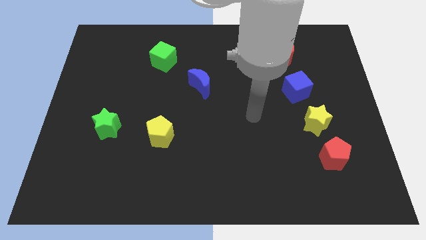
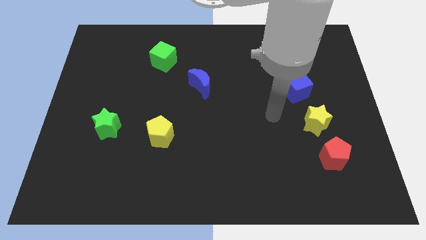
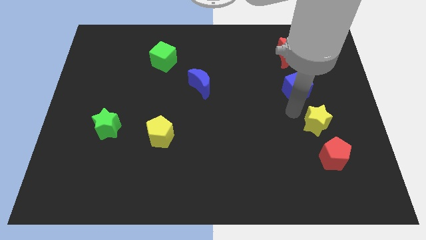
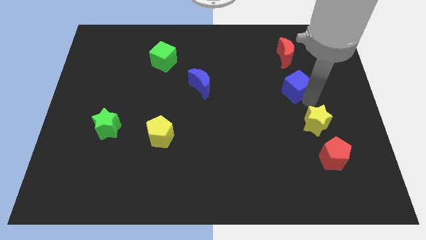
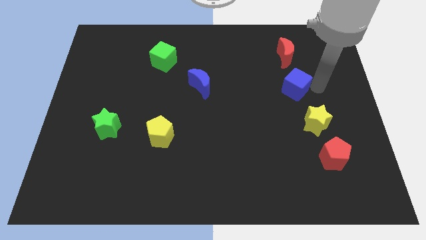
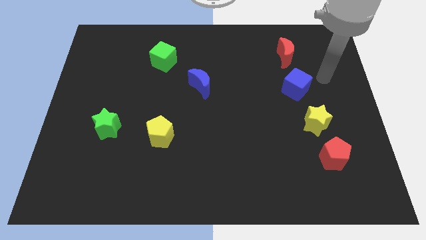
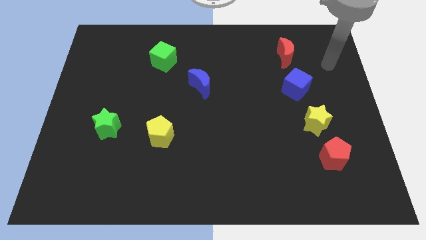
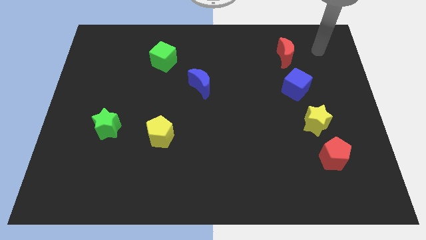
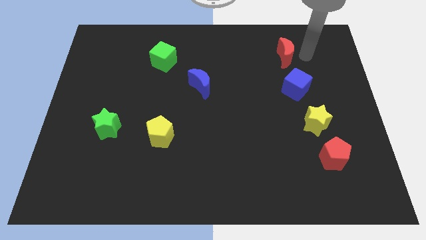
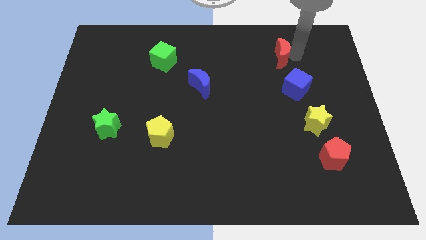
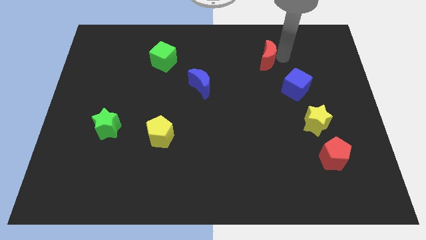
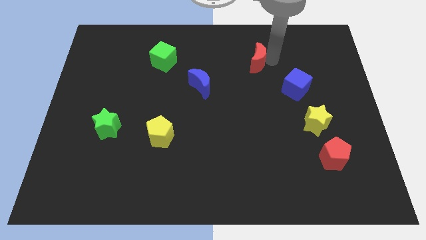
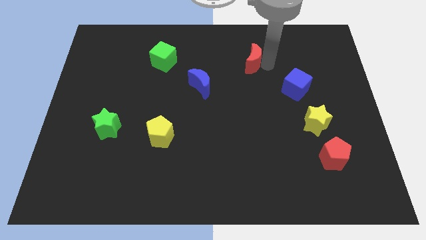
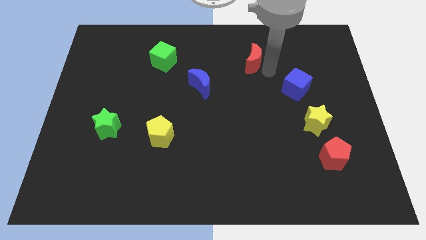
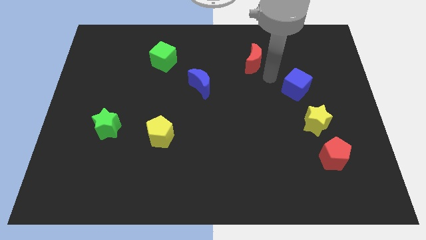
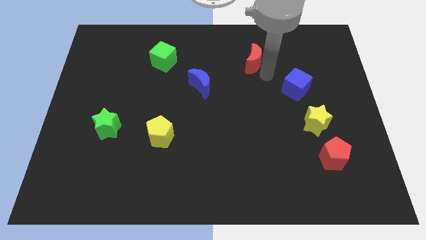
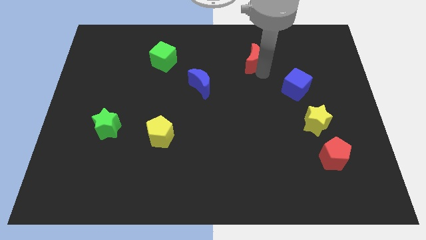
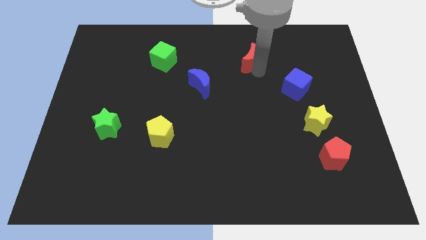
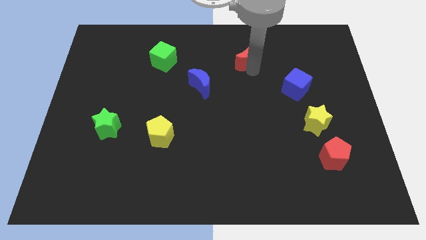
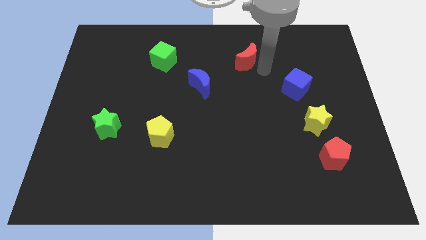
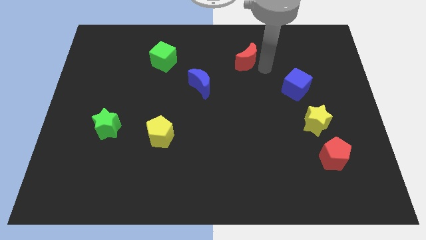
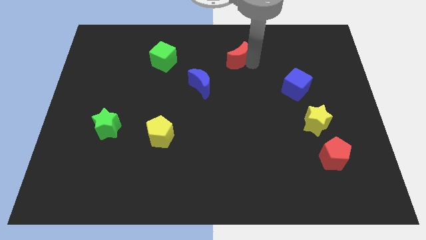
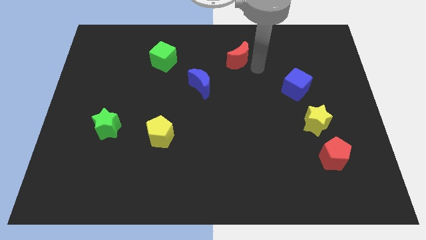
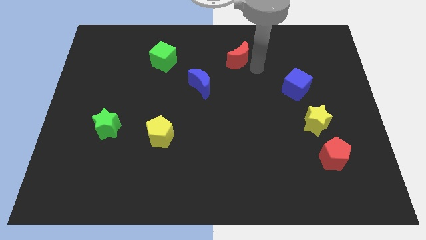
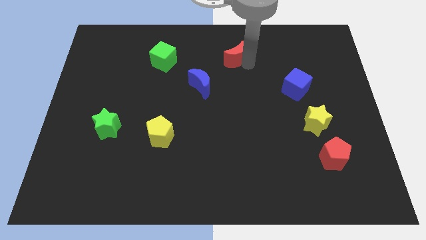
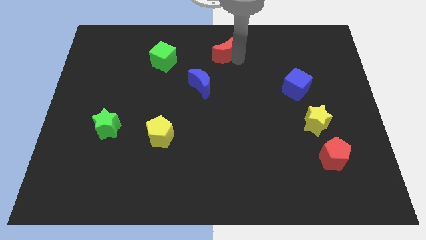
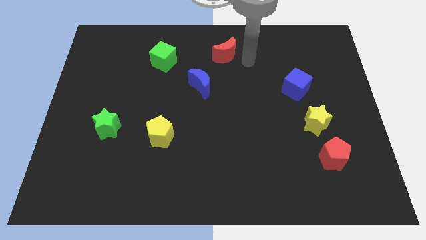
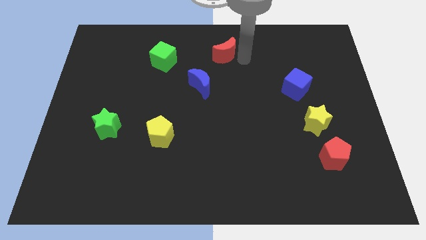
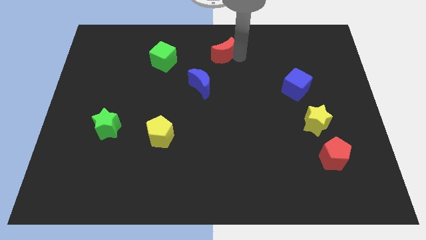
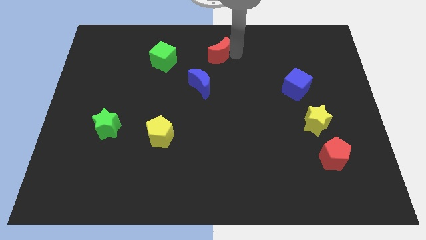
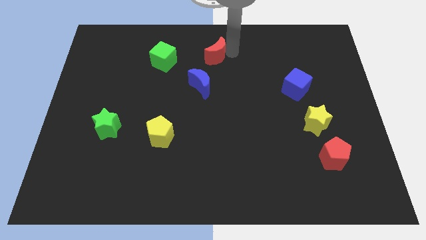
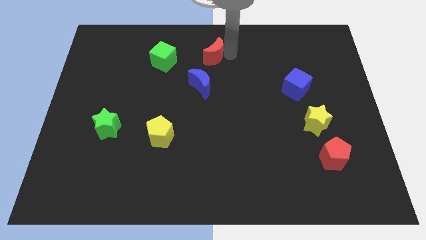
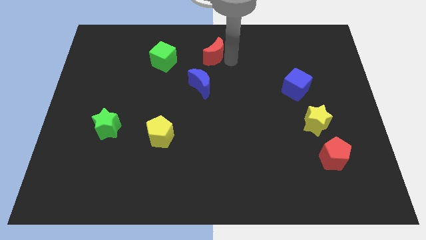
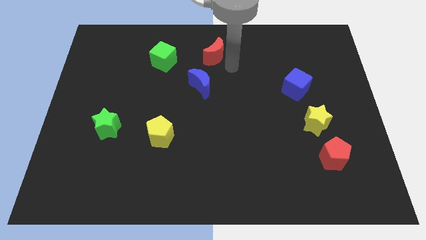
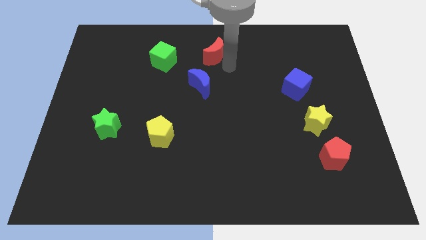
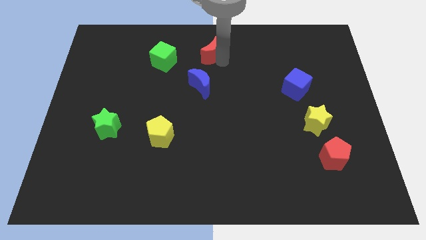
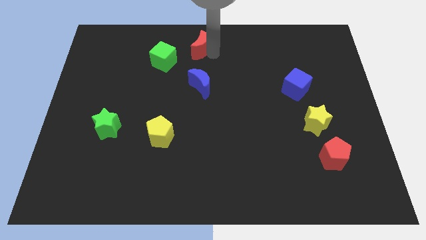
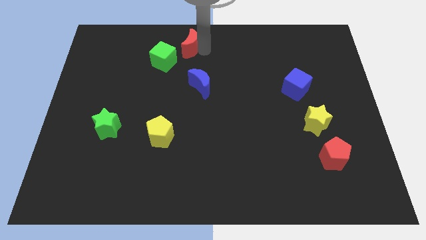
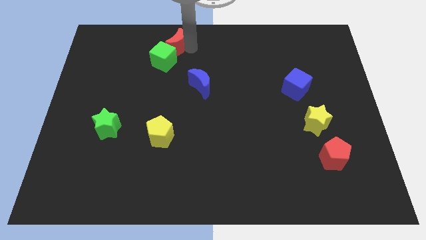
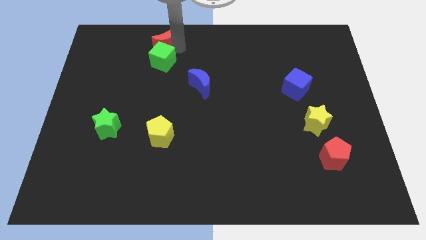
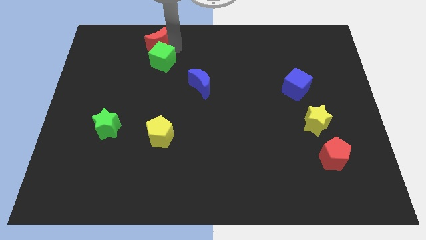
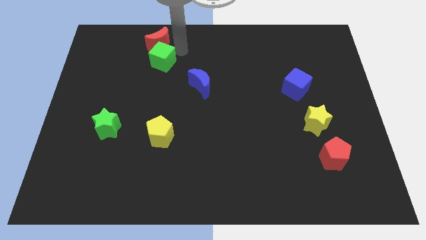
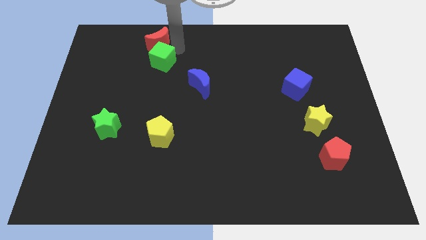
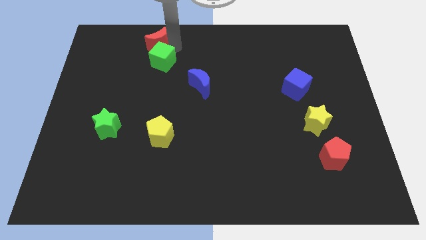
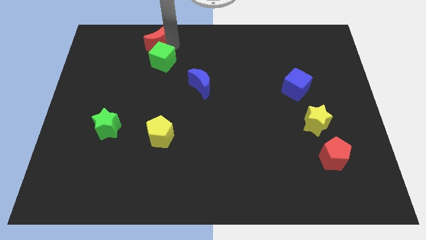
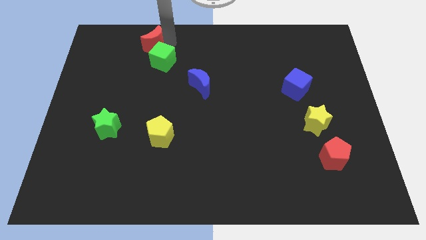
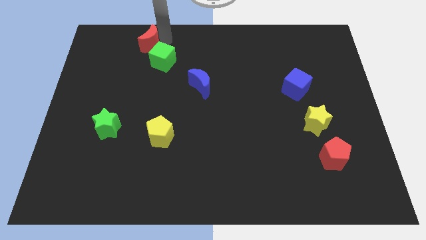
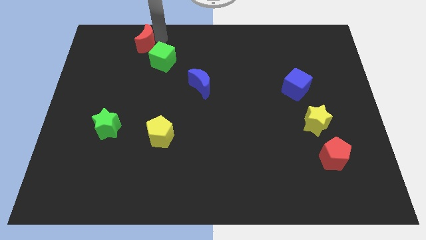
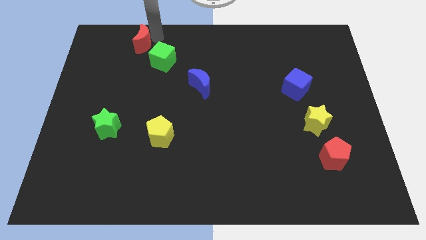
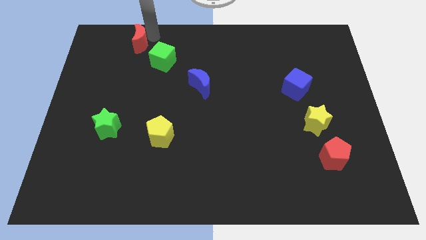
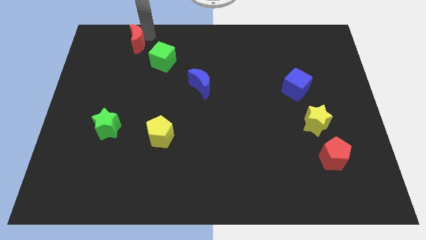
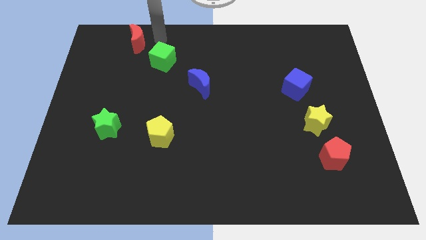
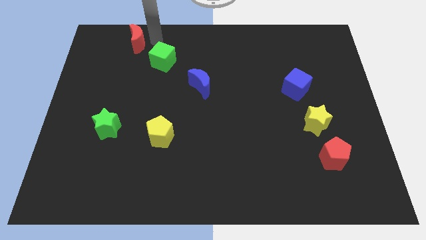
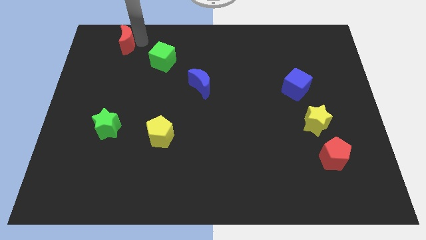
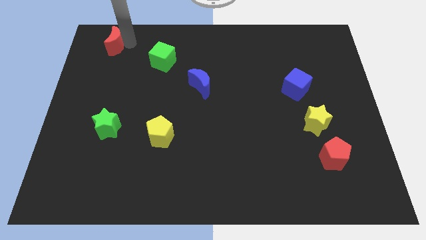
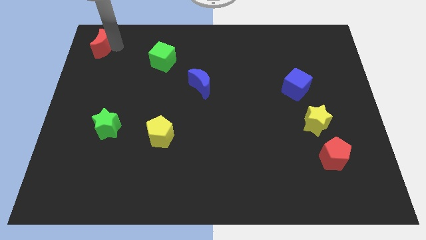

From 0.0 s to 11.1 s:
push the red moon to the top left of the board

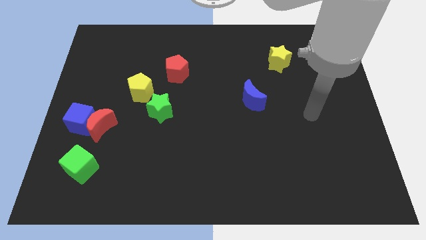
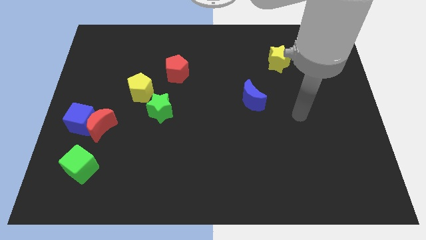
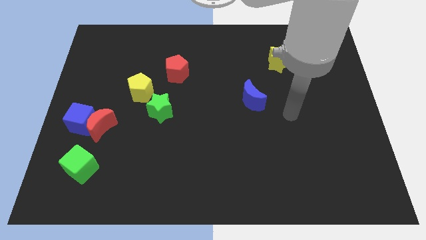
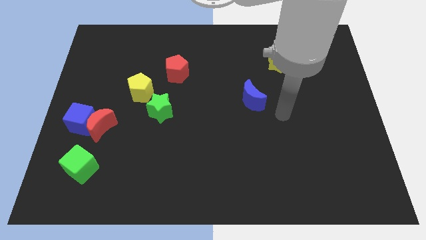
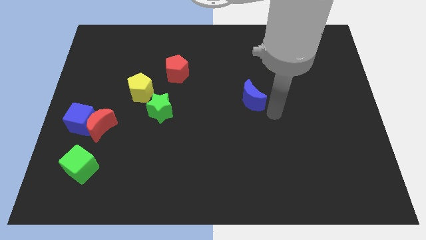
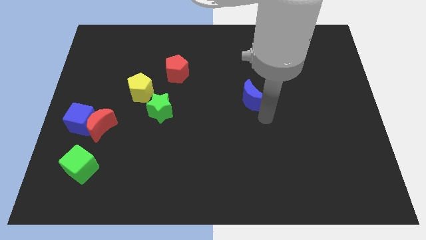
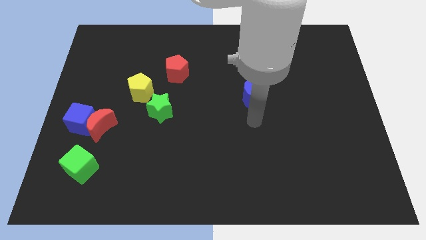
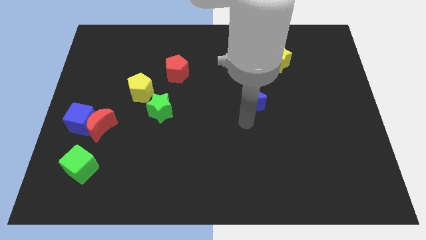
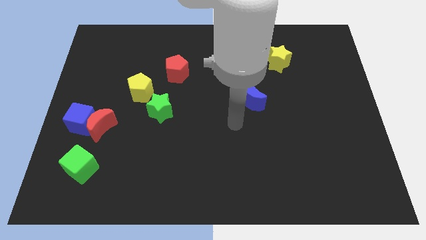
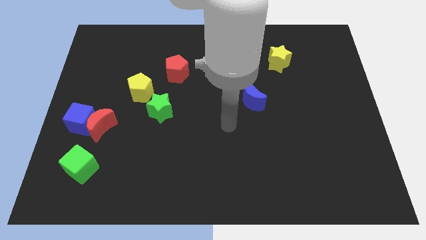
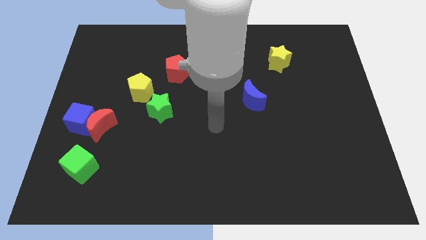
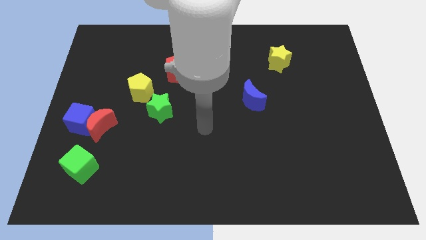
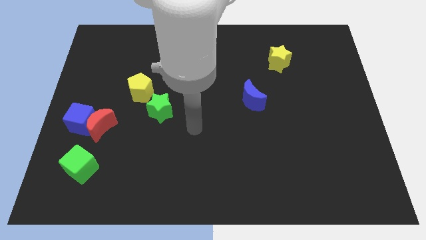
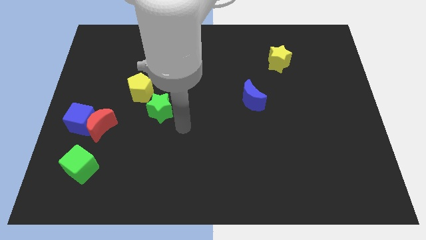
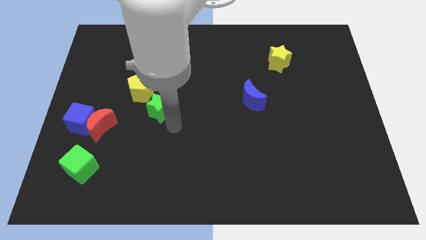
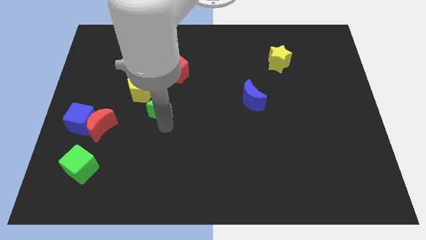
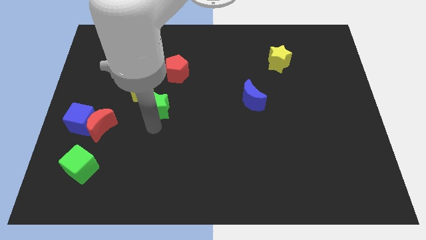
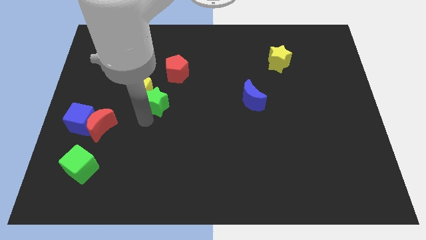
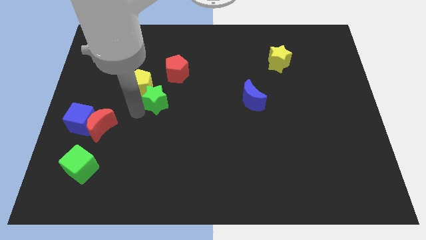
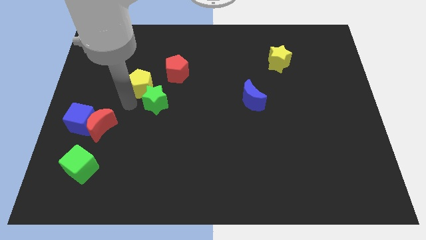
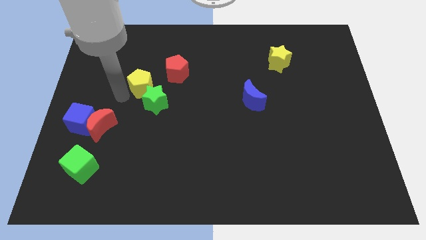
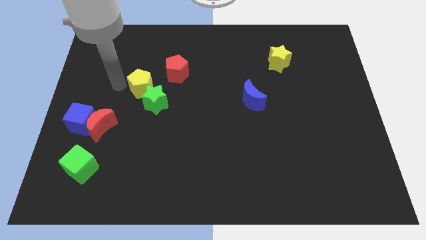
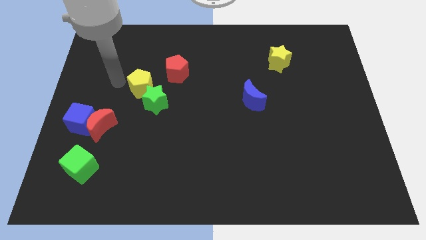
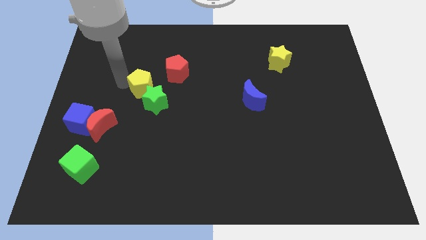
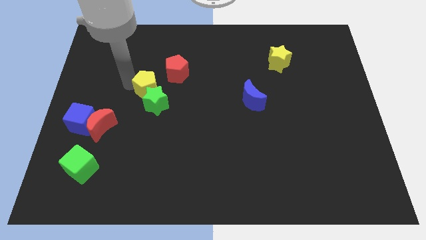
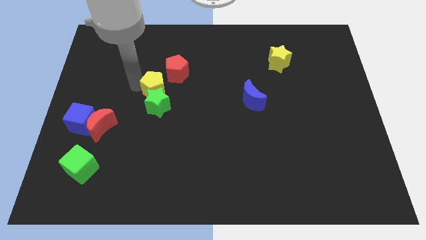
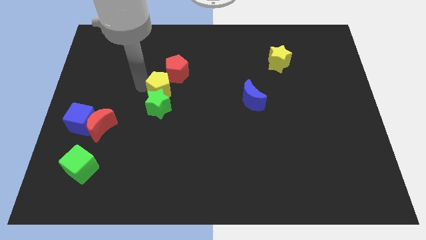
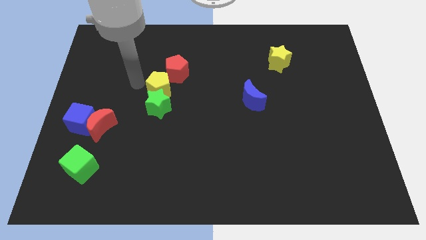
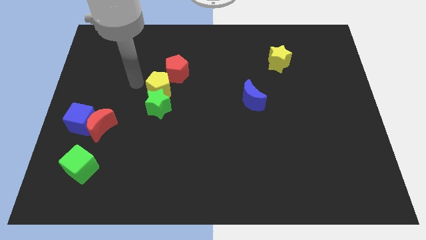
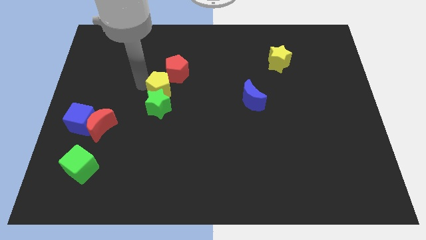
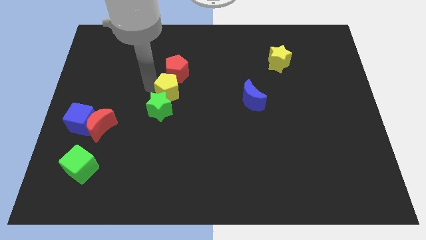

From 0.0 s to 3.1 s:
put the yellow pentagon to the center of the board
